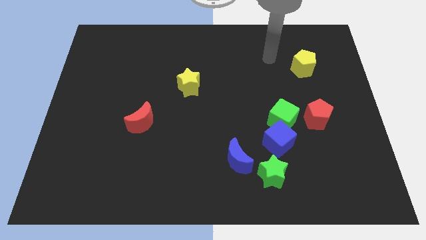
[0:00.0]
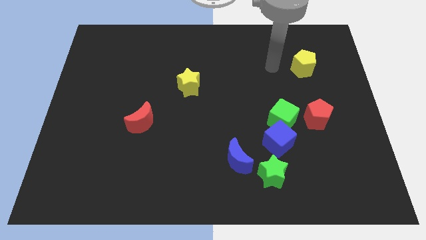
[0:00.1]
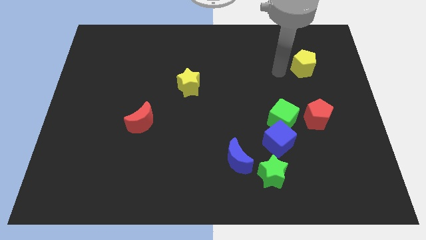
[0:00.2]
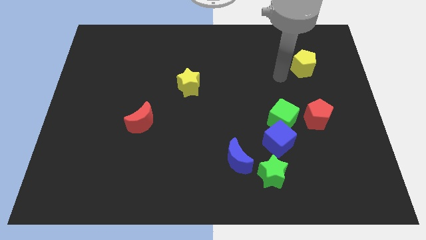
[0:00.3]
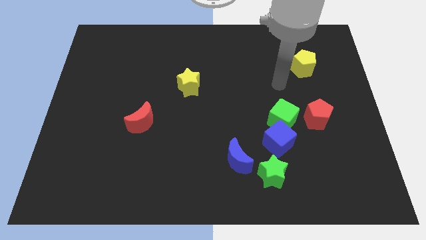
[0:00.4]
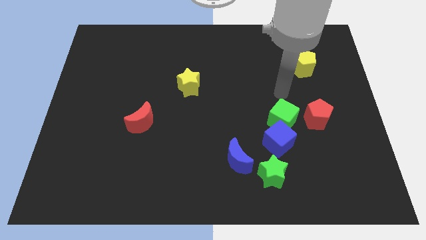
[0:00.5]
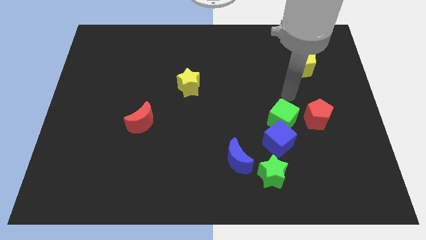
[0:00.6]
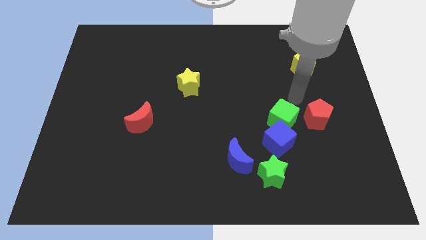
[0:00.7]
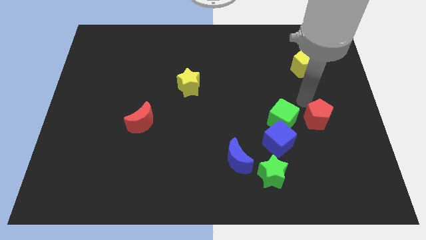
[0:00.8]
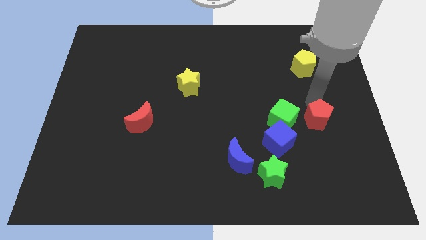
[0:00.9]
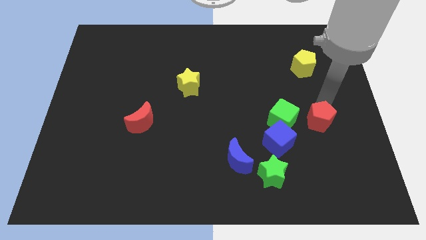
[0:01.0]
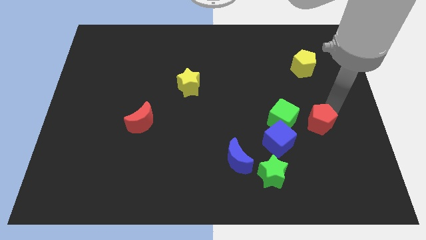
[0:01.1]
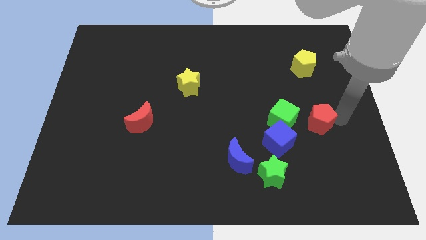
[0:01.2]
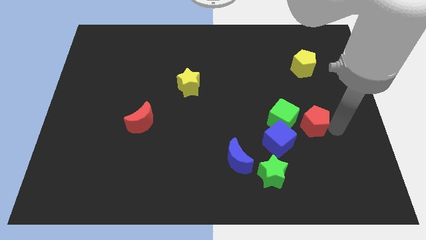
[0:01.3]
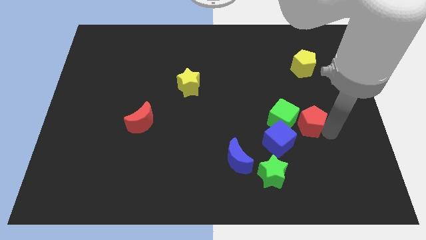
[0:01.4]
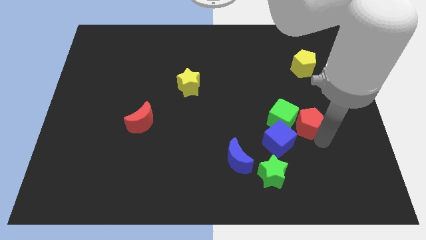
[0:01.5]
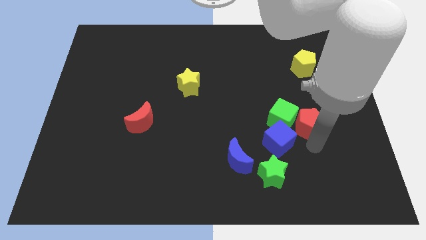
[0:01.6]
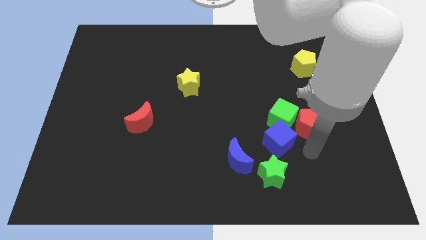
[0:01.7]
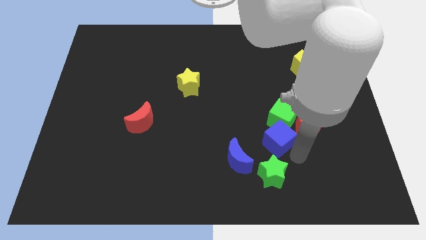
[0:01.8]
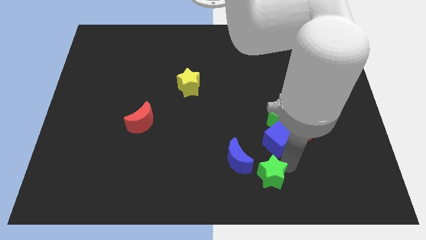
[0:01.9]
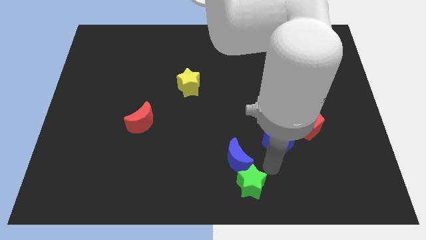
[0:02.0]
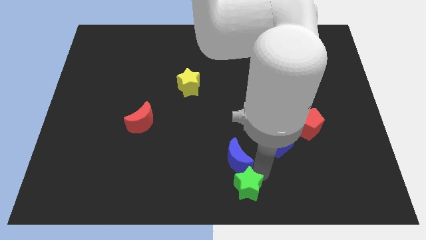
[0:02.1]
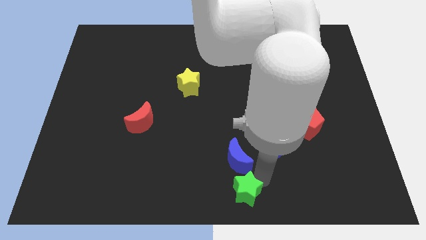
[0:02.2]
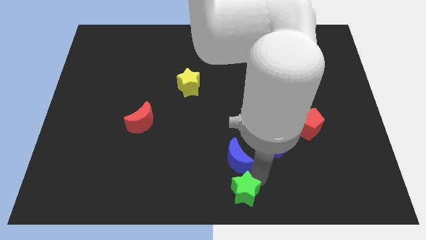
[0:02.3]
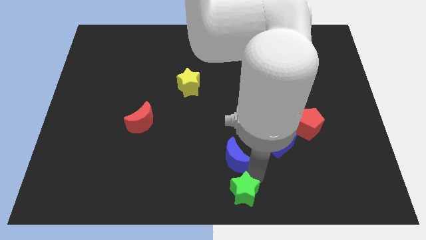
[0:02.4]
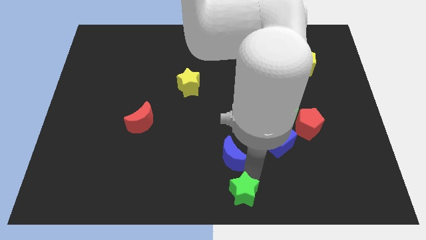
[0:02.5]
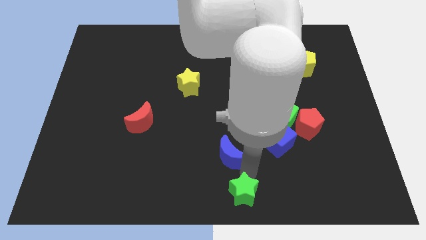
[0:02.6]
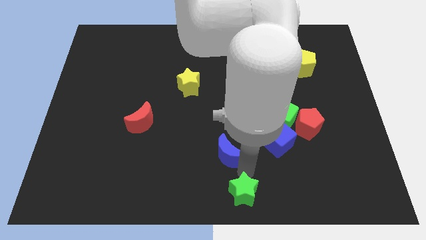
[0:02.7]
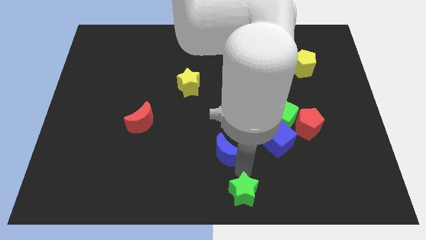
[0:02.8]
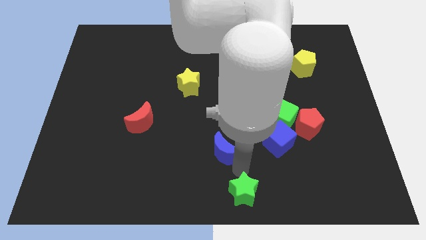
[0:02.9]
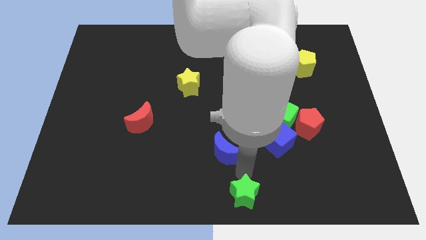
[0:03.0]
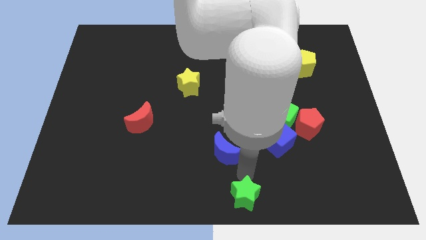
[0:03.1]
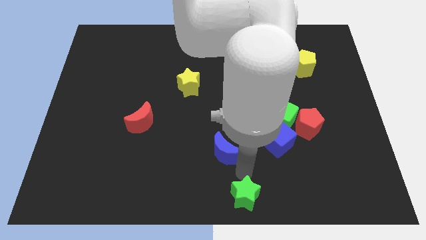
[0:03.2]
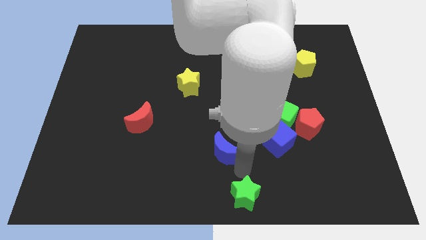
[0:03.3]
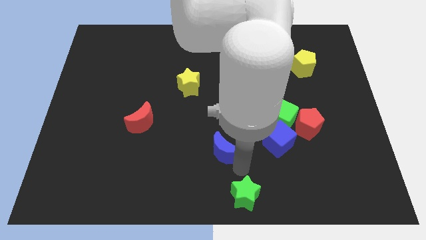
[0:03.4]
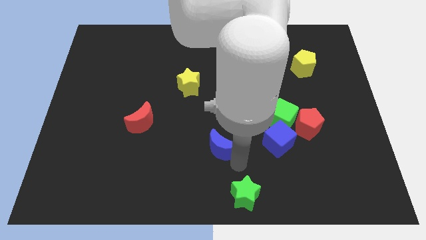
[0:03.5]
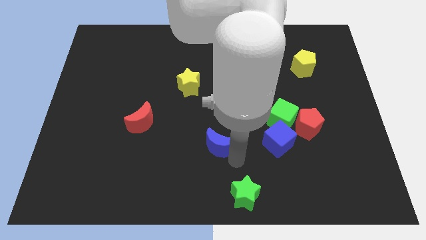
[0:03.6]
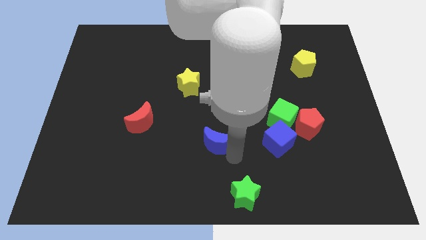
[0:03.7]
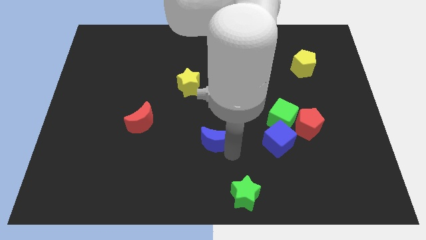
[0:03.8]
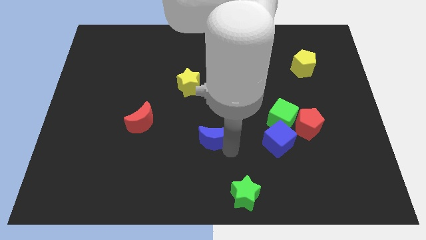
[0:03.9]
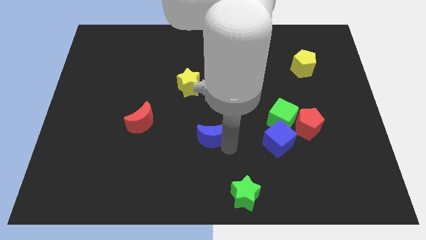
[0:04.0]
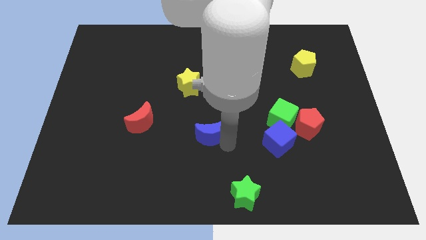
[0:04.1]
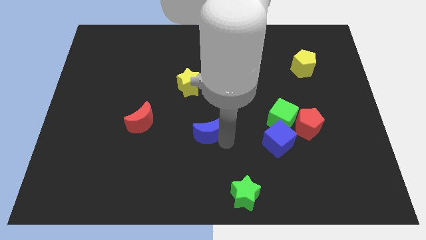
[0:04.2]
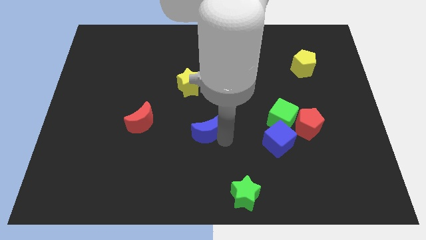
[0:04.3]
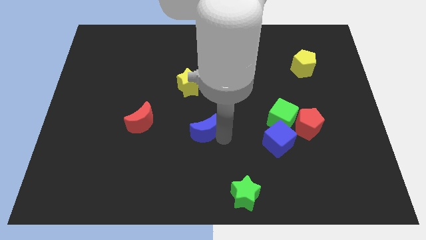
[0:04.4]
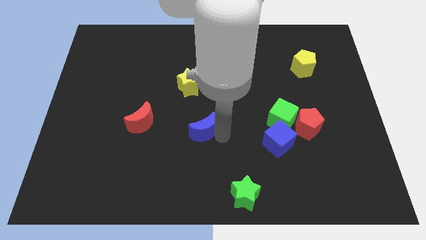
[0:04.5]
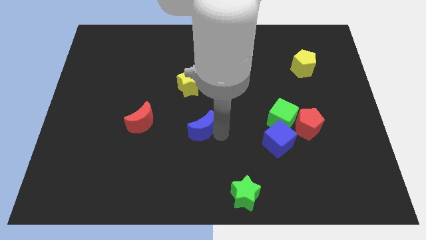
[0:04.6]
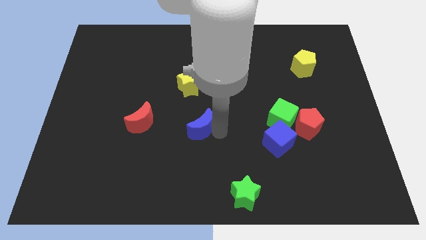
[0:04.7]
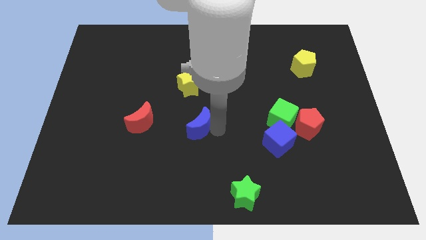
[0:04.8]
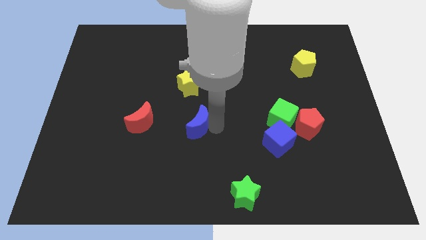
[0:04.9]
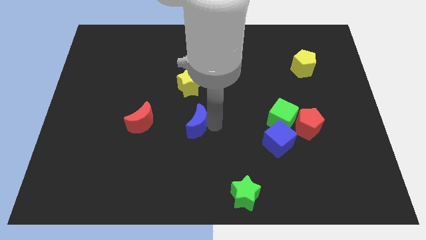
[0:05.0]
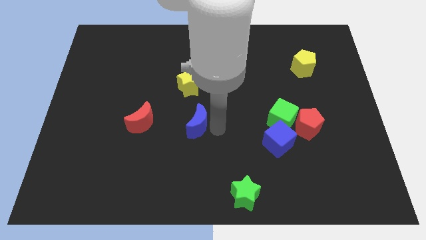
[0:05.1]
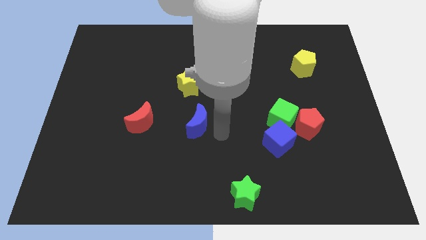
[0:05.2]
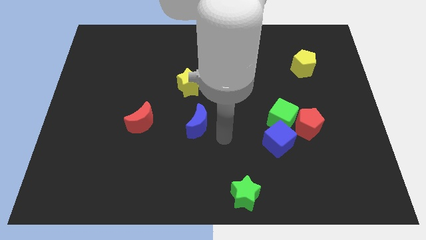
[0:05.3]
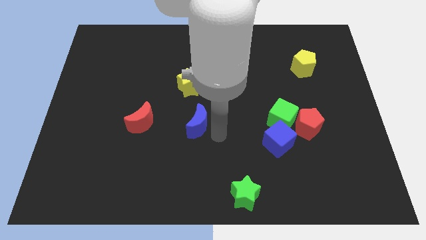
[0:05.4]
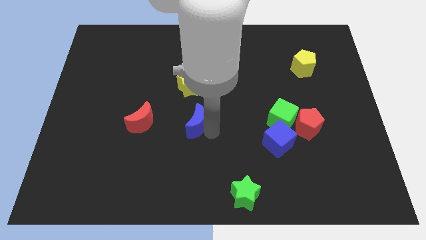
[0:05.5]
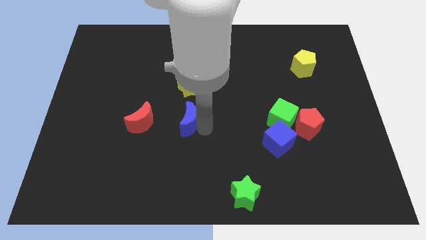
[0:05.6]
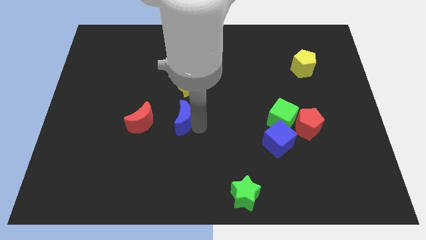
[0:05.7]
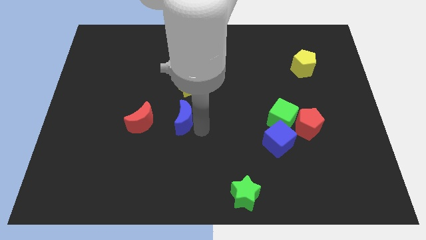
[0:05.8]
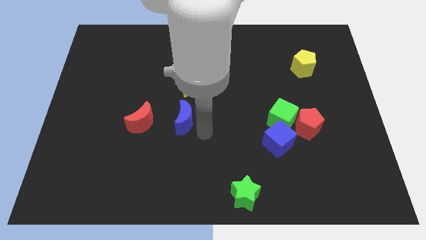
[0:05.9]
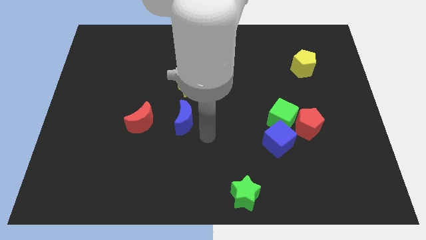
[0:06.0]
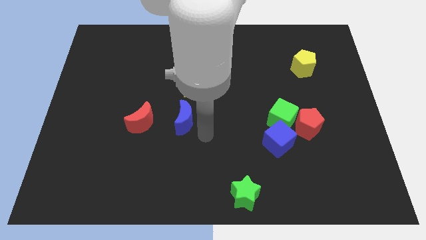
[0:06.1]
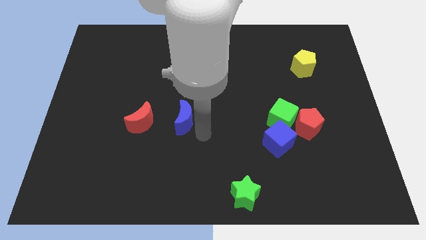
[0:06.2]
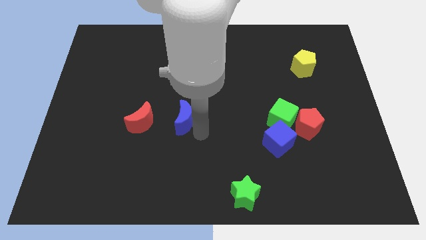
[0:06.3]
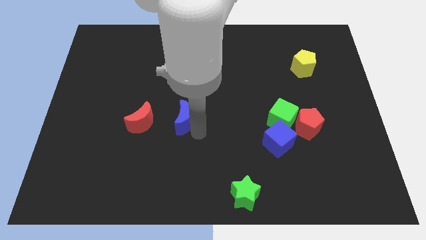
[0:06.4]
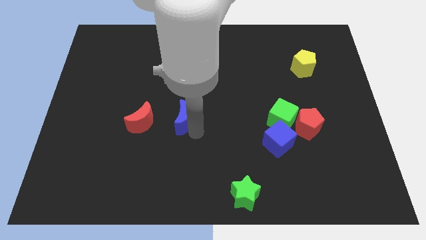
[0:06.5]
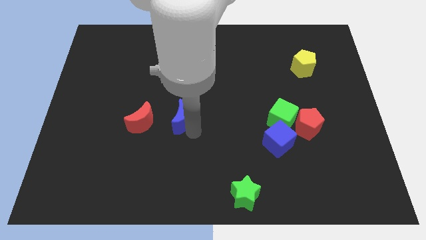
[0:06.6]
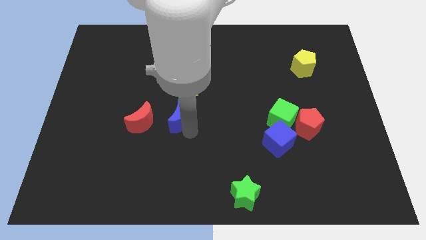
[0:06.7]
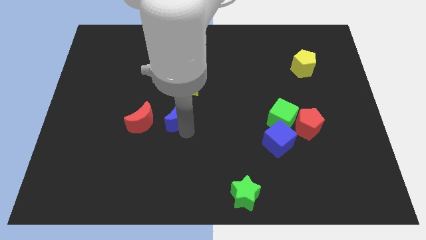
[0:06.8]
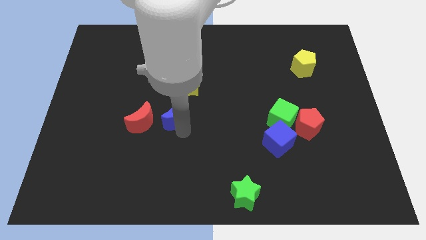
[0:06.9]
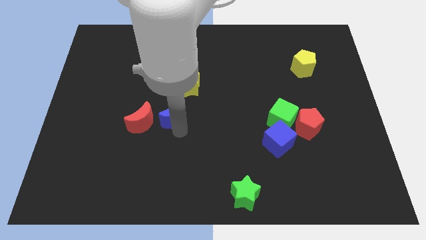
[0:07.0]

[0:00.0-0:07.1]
move the blue moon diagonally down and to the left of the yellow star
